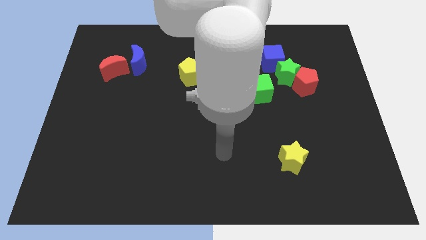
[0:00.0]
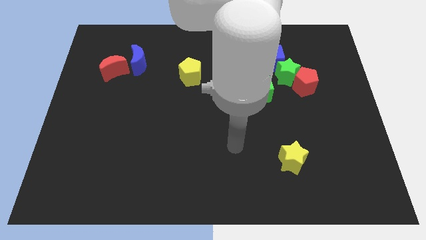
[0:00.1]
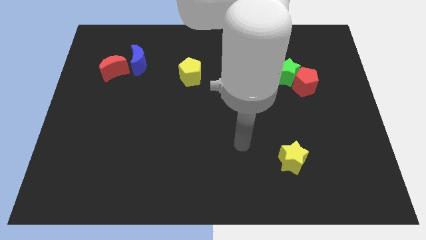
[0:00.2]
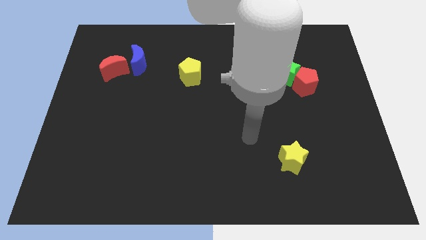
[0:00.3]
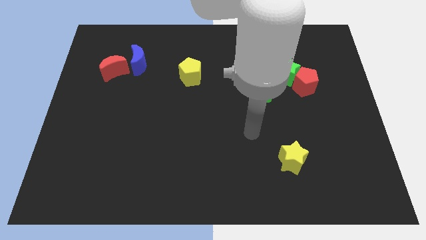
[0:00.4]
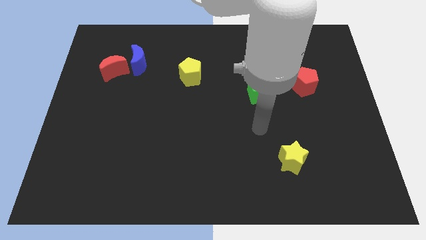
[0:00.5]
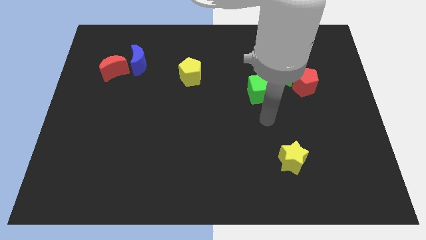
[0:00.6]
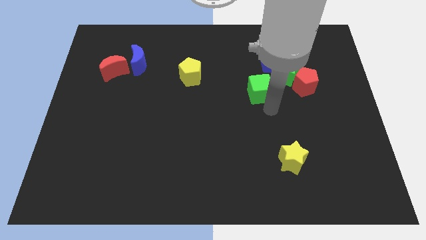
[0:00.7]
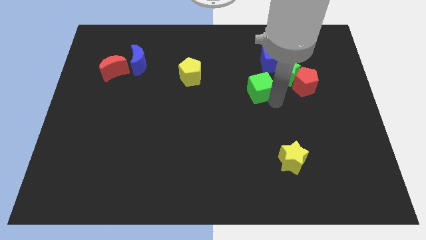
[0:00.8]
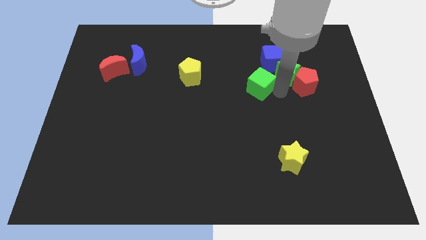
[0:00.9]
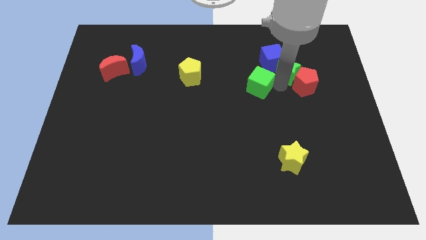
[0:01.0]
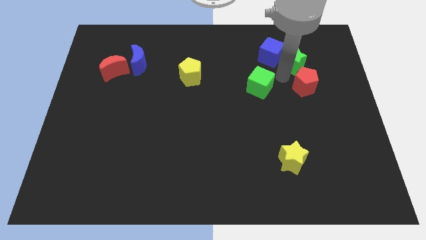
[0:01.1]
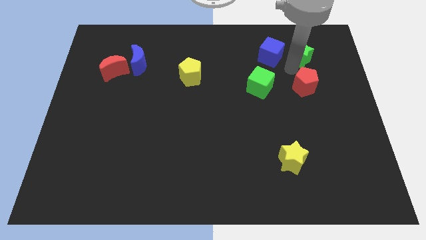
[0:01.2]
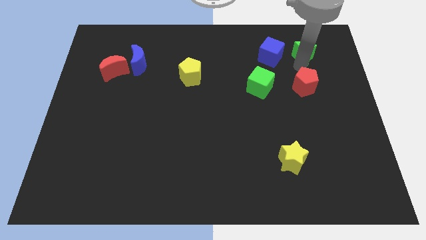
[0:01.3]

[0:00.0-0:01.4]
separate the red pentagon from the green star

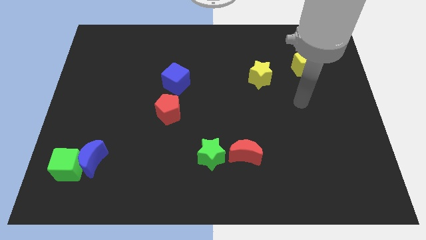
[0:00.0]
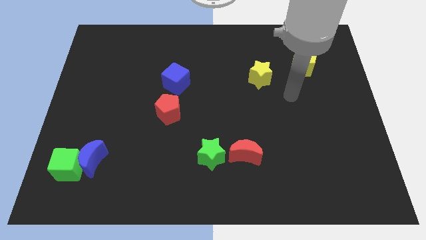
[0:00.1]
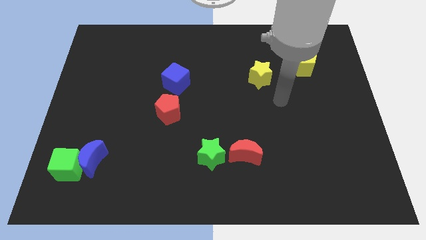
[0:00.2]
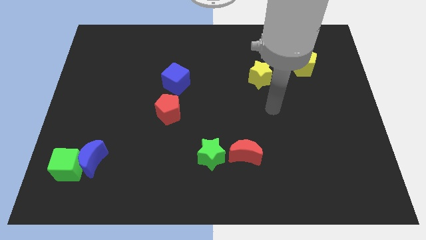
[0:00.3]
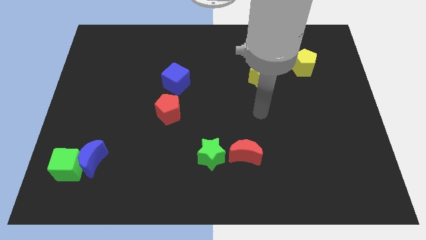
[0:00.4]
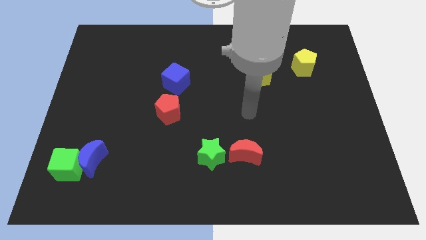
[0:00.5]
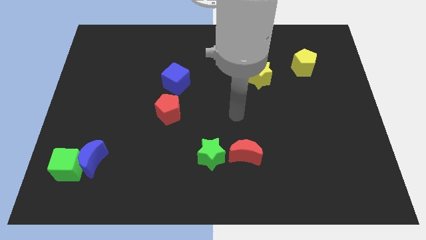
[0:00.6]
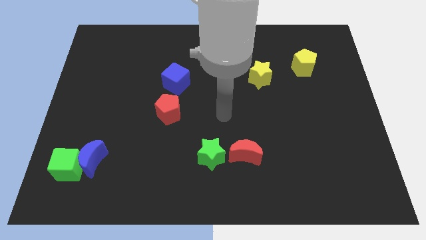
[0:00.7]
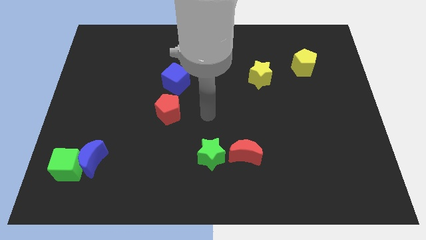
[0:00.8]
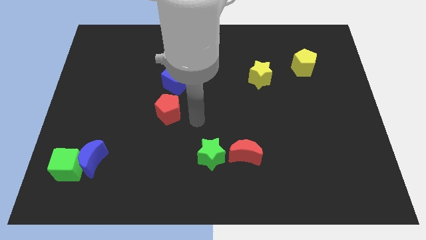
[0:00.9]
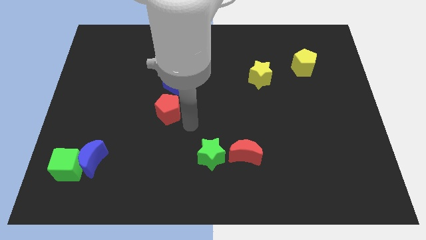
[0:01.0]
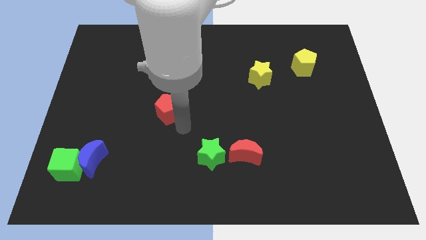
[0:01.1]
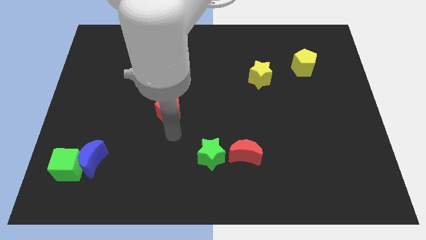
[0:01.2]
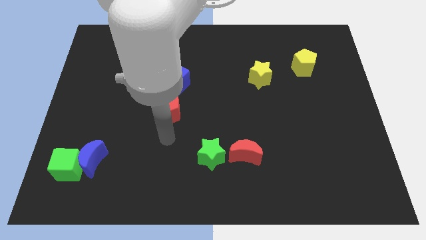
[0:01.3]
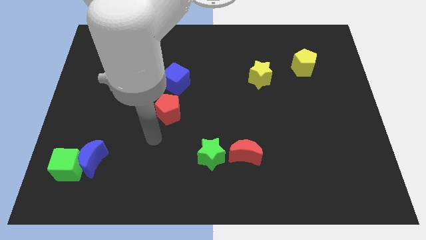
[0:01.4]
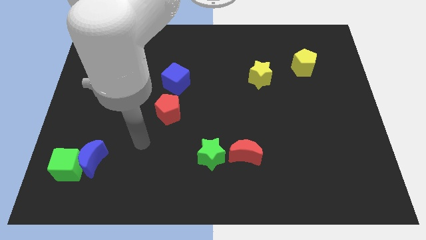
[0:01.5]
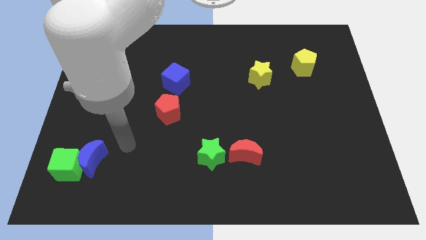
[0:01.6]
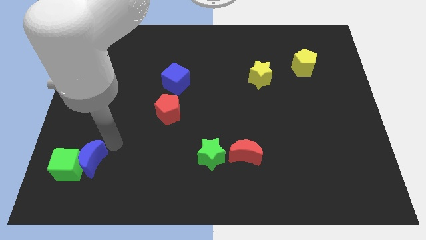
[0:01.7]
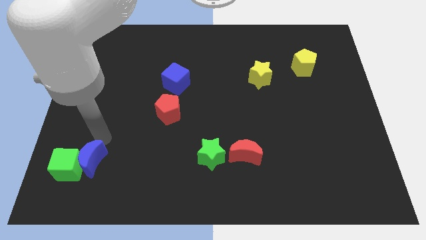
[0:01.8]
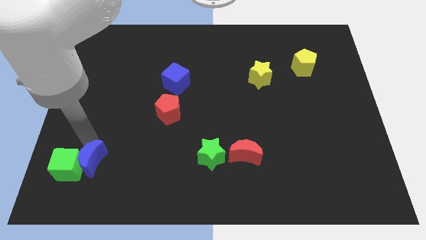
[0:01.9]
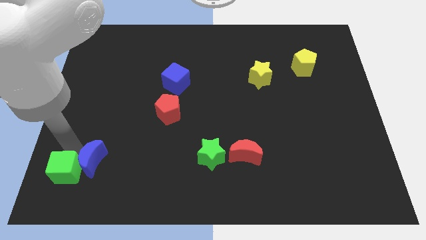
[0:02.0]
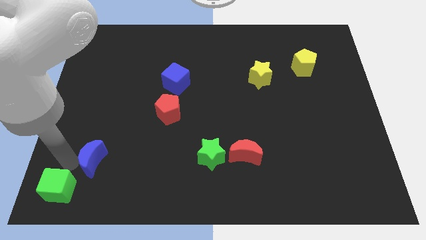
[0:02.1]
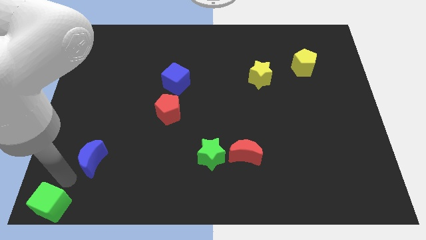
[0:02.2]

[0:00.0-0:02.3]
separate the blue moon from the green cube

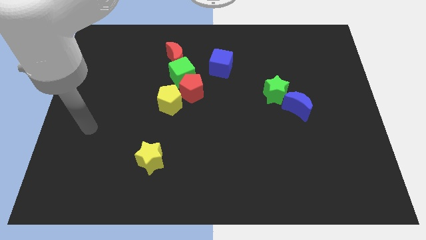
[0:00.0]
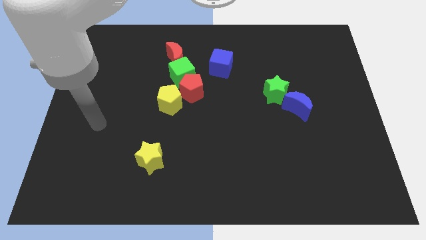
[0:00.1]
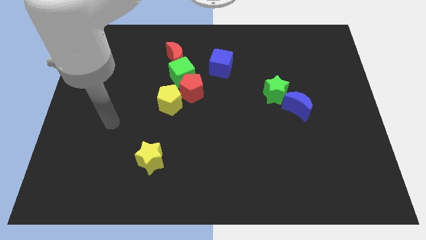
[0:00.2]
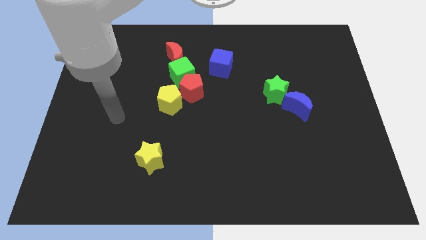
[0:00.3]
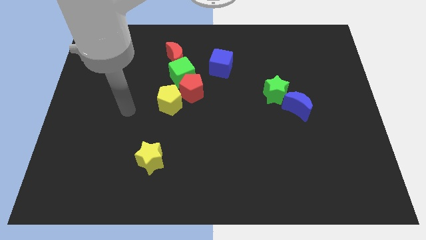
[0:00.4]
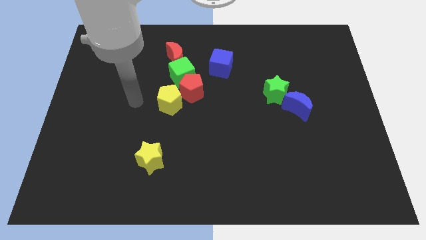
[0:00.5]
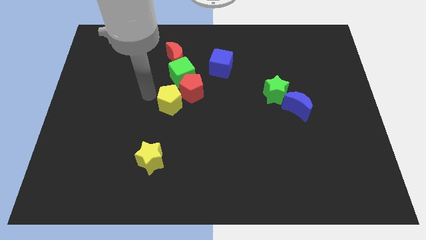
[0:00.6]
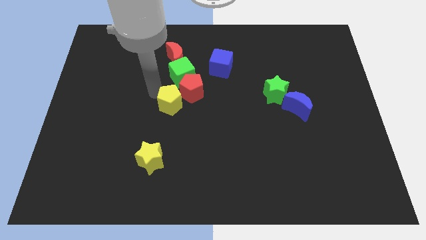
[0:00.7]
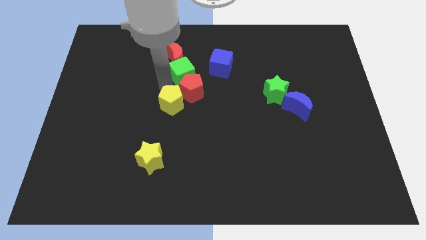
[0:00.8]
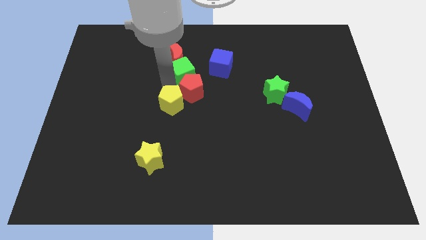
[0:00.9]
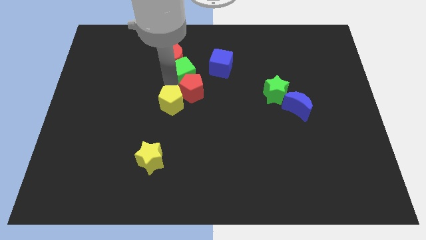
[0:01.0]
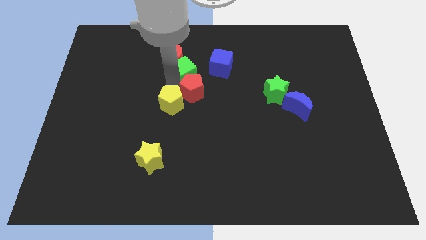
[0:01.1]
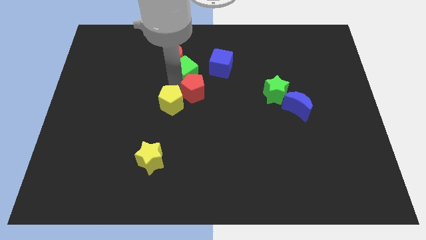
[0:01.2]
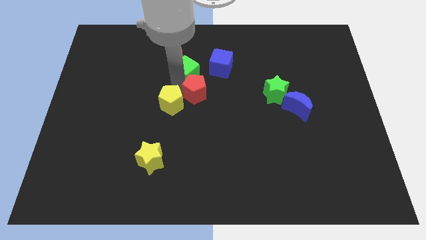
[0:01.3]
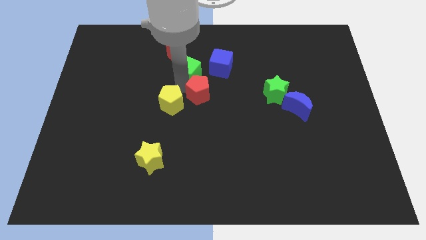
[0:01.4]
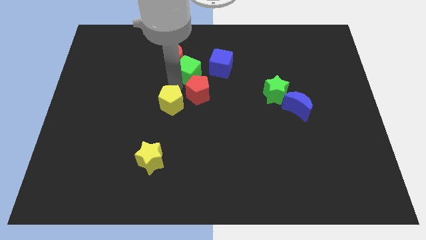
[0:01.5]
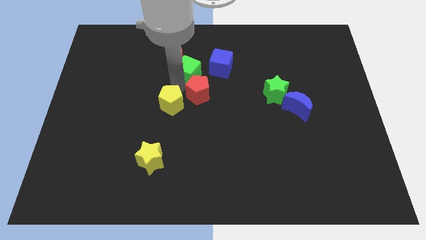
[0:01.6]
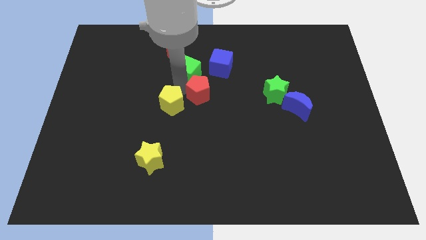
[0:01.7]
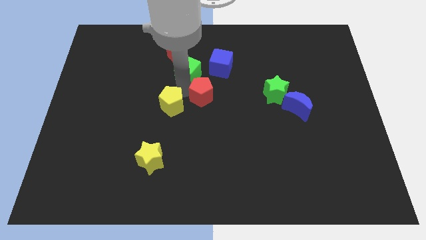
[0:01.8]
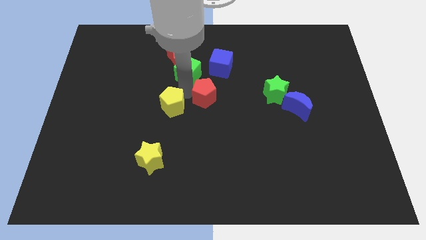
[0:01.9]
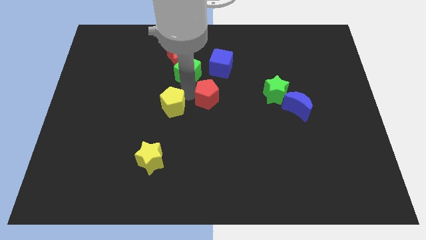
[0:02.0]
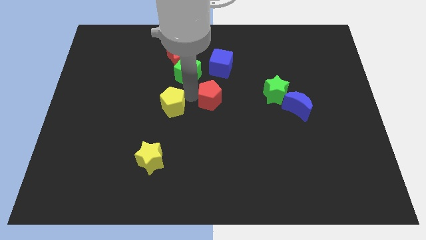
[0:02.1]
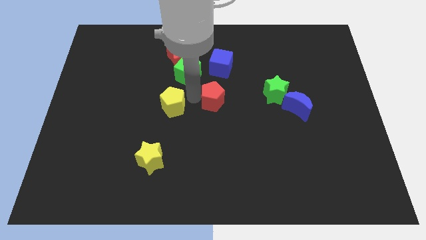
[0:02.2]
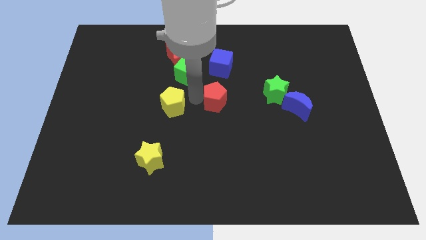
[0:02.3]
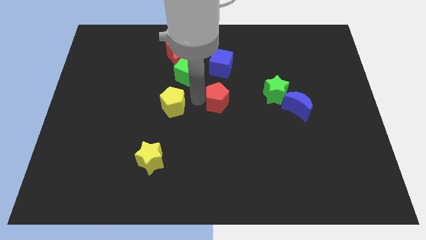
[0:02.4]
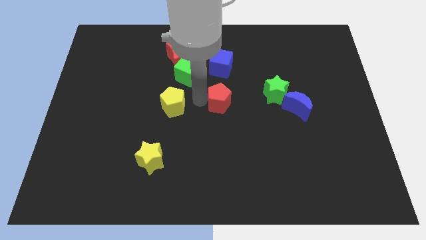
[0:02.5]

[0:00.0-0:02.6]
separate the red pentagon from the green cube and yellow pentagon

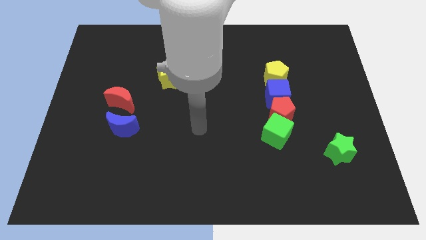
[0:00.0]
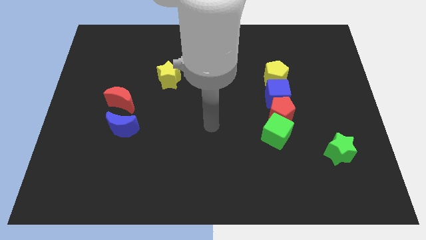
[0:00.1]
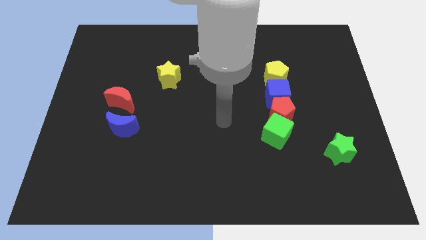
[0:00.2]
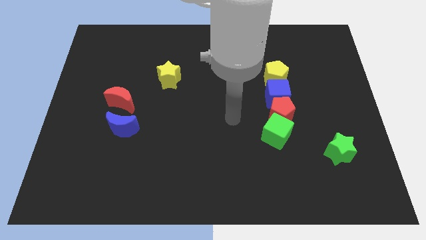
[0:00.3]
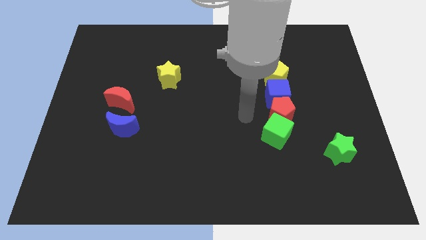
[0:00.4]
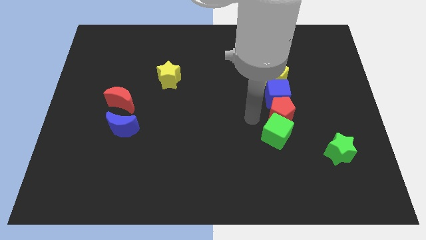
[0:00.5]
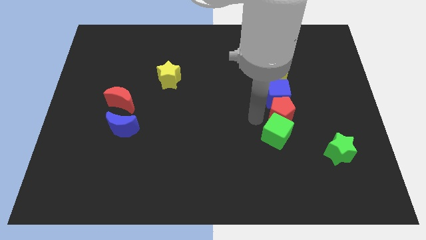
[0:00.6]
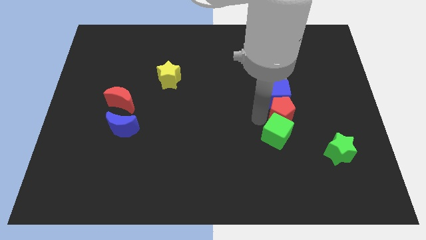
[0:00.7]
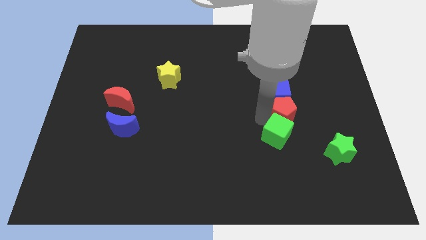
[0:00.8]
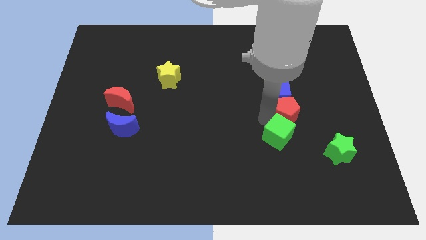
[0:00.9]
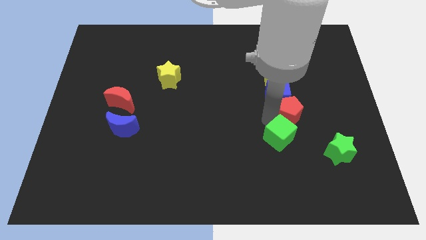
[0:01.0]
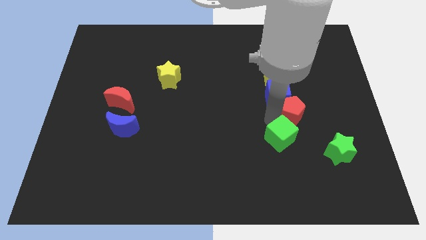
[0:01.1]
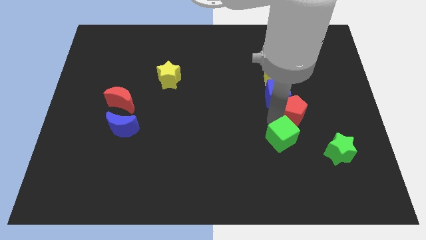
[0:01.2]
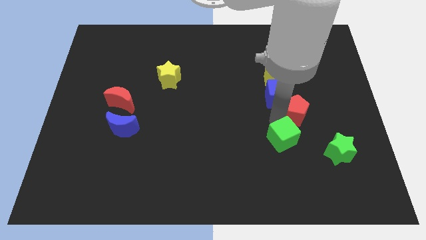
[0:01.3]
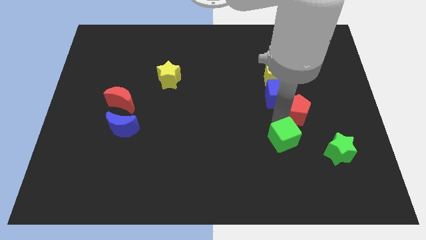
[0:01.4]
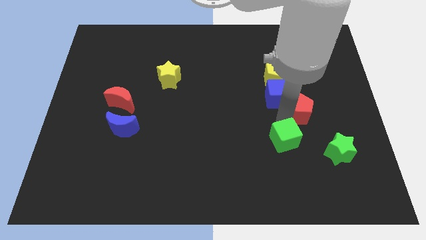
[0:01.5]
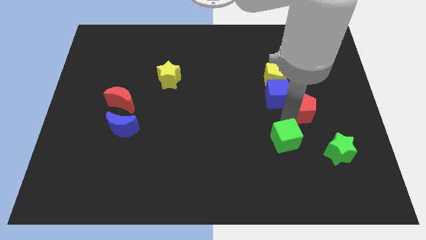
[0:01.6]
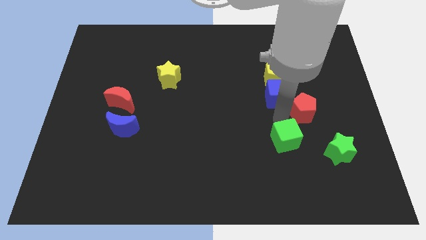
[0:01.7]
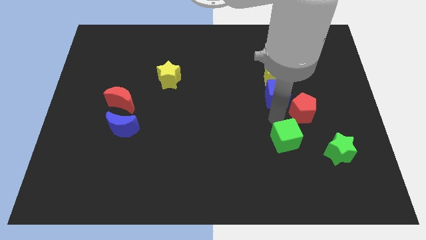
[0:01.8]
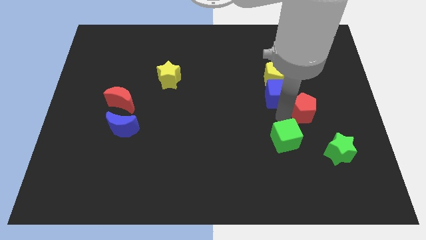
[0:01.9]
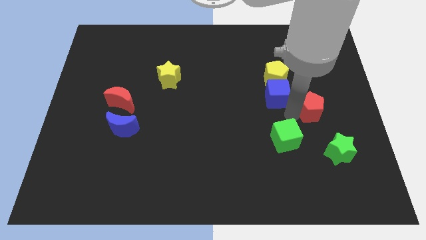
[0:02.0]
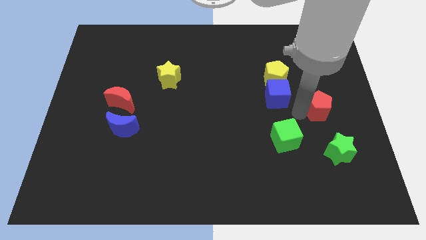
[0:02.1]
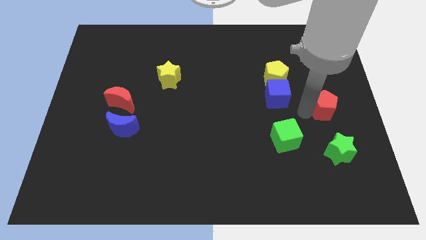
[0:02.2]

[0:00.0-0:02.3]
move the red pentagon away from the blue cube and green cube

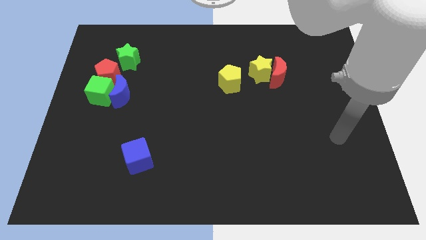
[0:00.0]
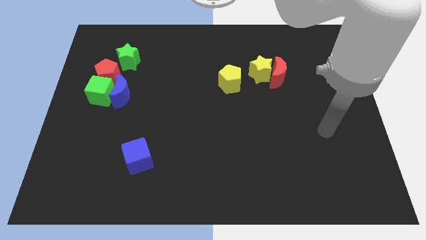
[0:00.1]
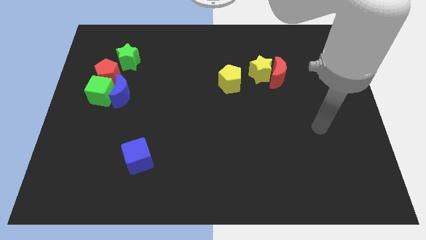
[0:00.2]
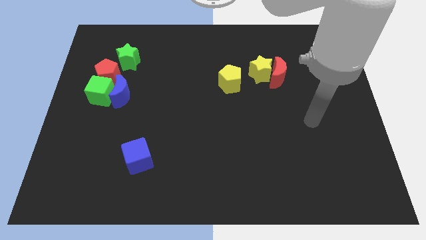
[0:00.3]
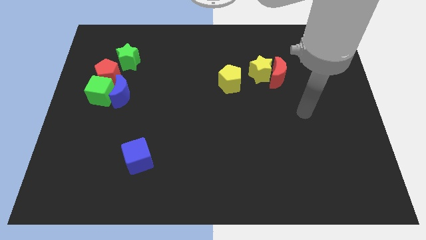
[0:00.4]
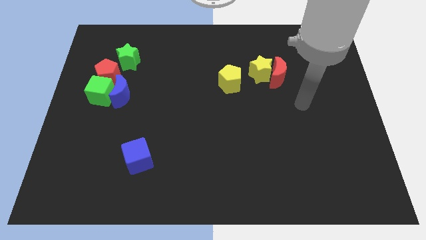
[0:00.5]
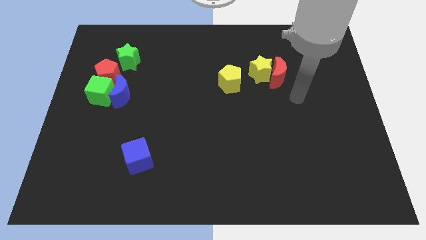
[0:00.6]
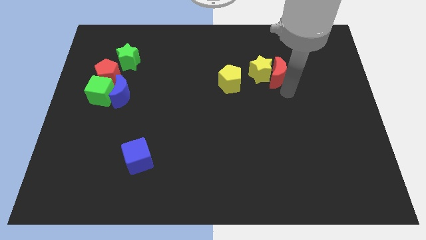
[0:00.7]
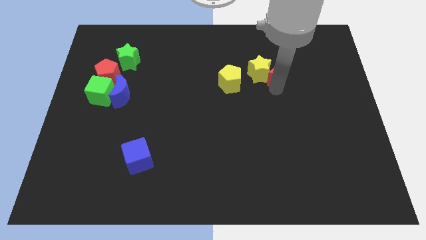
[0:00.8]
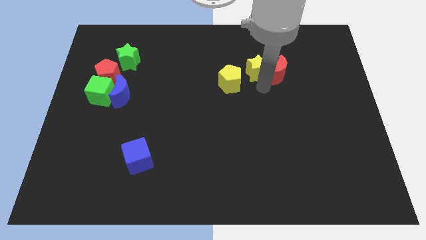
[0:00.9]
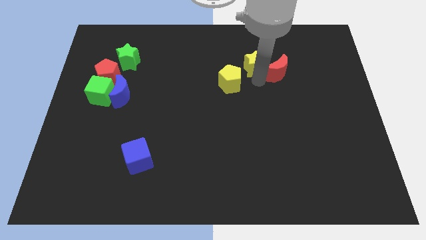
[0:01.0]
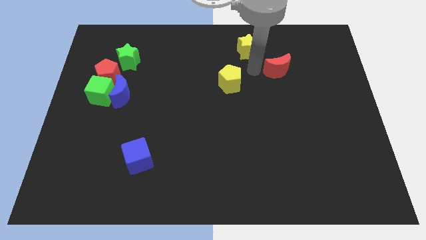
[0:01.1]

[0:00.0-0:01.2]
pull the red moon apart from the yellow star
